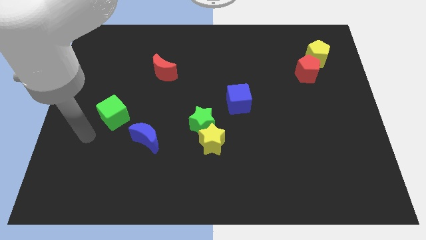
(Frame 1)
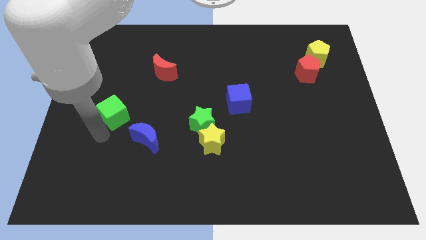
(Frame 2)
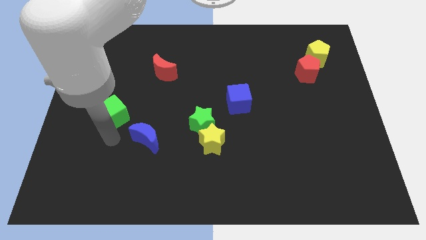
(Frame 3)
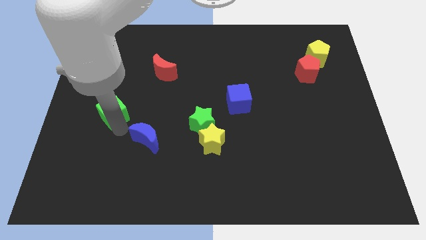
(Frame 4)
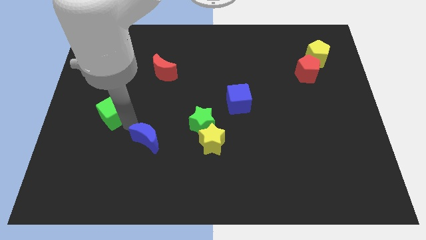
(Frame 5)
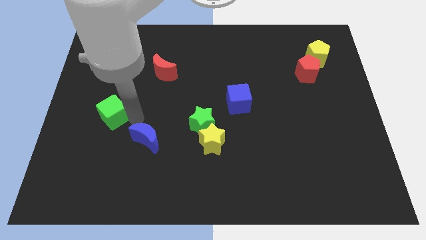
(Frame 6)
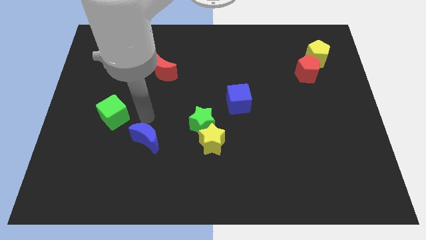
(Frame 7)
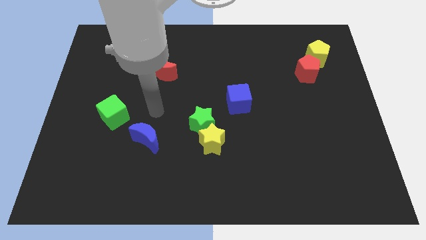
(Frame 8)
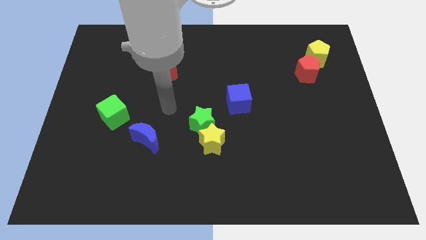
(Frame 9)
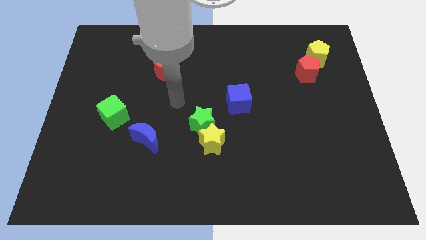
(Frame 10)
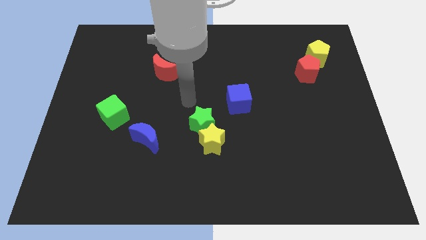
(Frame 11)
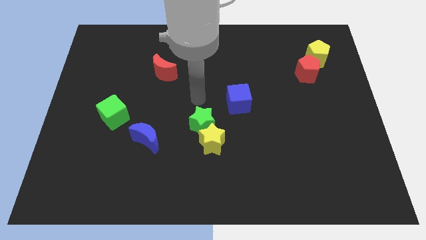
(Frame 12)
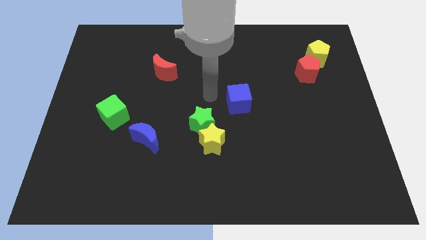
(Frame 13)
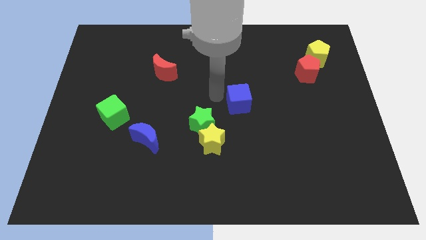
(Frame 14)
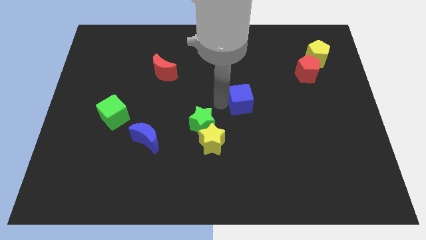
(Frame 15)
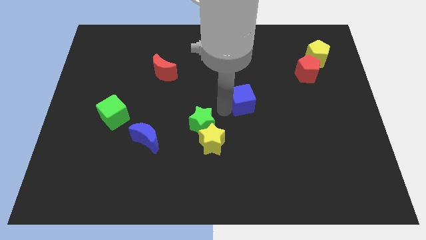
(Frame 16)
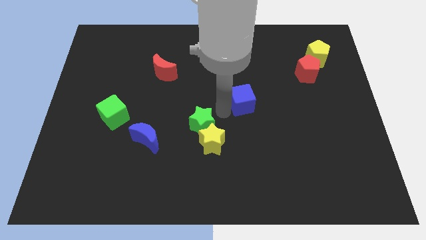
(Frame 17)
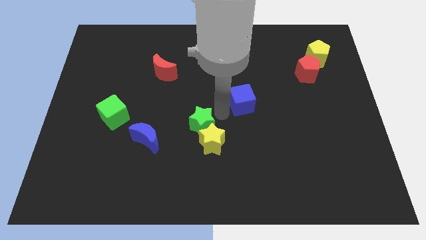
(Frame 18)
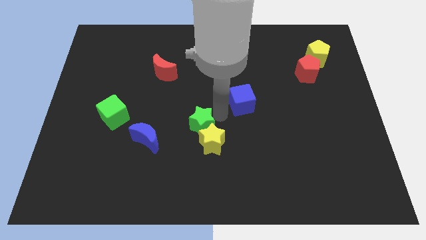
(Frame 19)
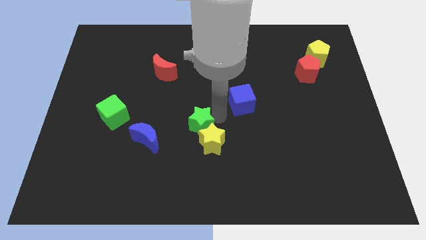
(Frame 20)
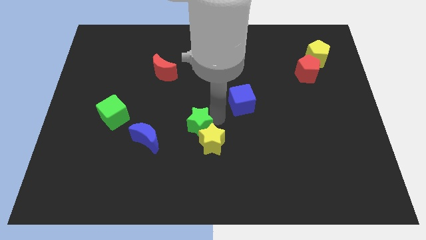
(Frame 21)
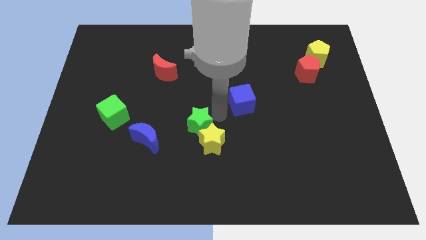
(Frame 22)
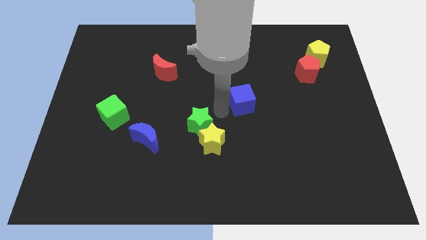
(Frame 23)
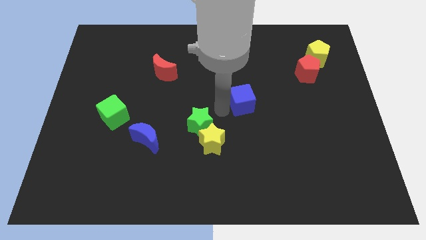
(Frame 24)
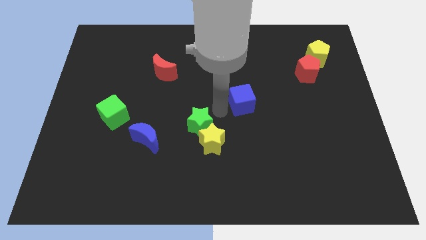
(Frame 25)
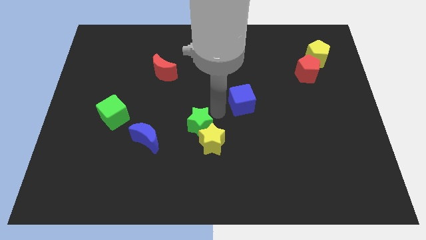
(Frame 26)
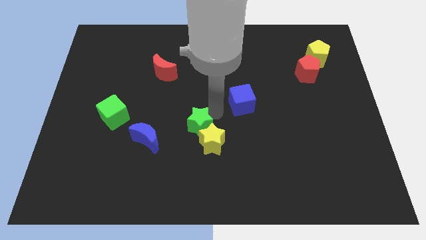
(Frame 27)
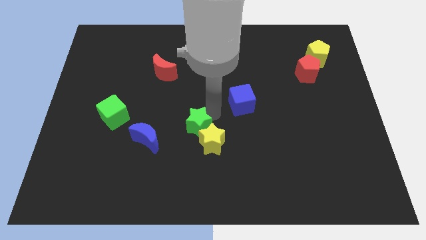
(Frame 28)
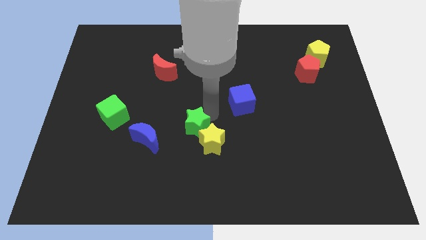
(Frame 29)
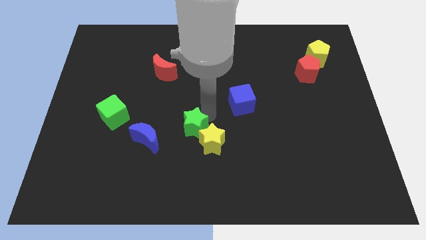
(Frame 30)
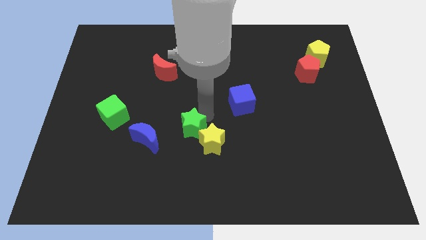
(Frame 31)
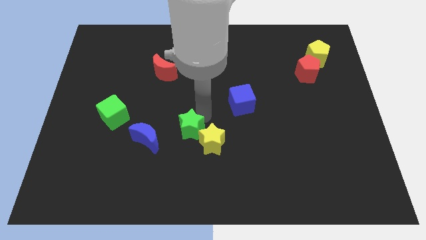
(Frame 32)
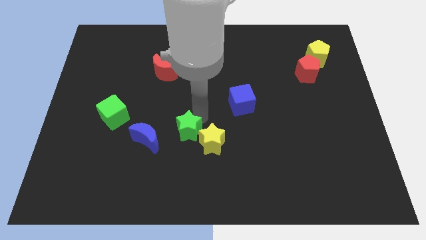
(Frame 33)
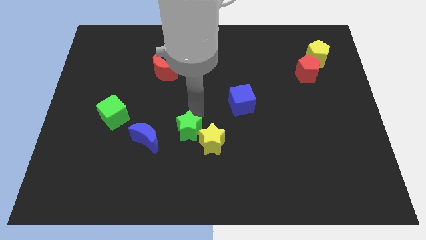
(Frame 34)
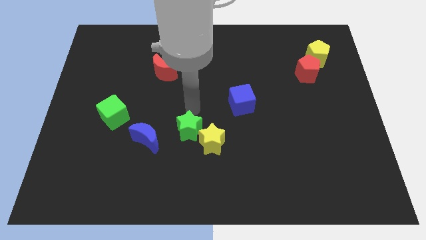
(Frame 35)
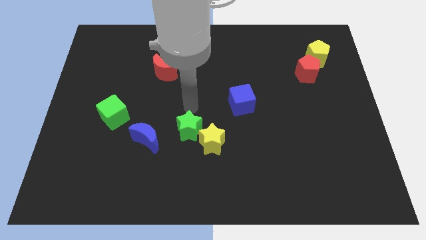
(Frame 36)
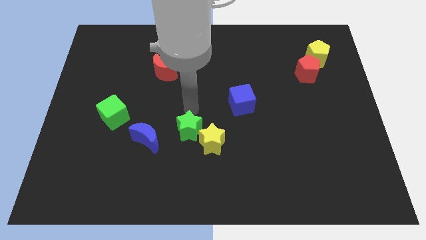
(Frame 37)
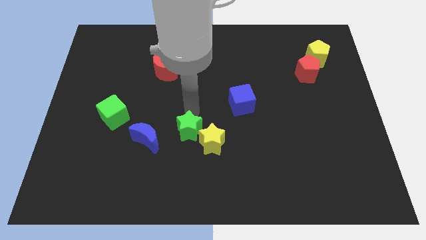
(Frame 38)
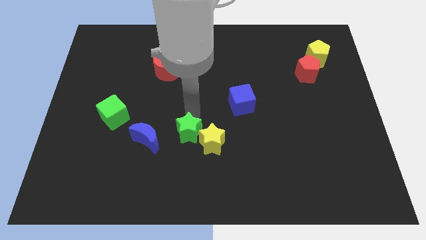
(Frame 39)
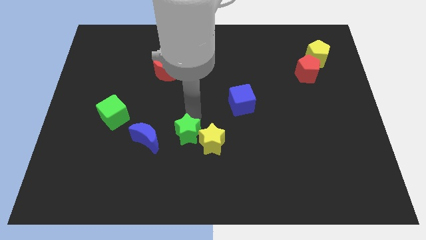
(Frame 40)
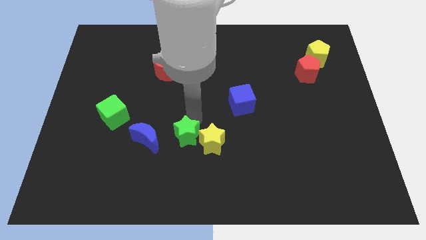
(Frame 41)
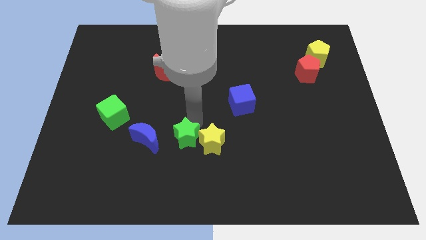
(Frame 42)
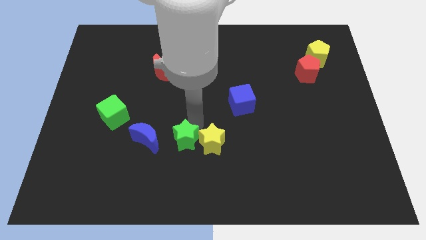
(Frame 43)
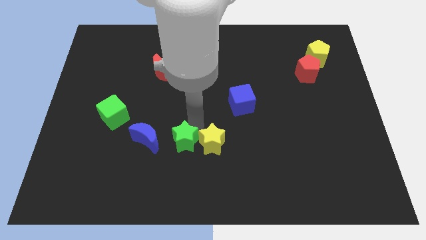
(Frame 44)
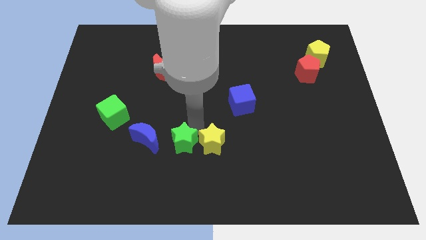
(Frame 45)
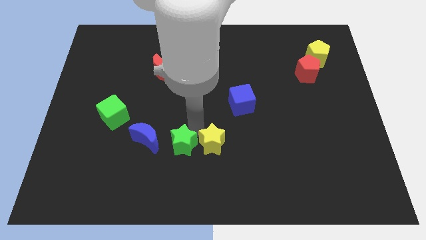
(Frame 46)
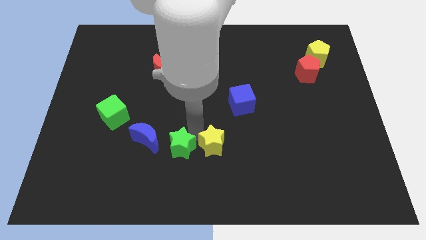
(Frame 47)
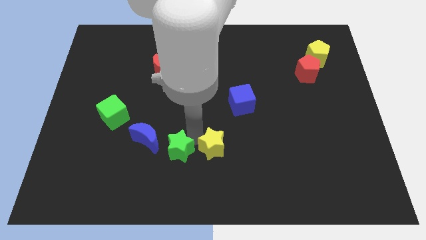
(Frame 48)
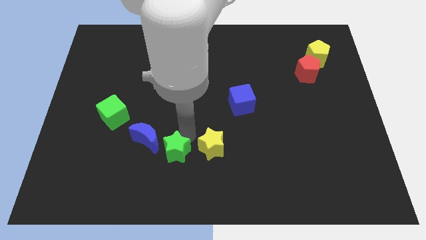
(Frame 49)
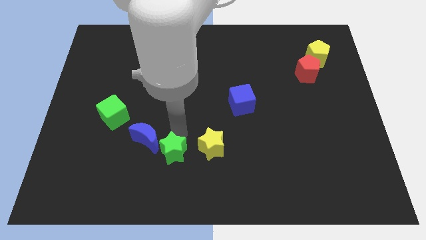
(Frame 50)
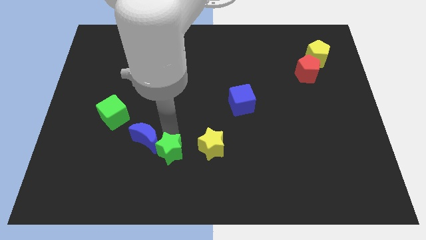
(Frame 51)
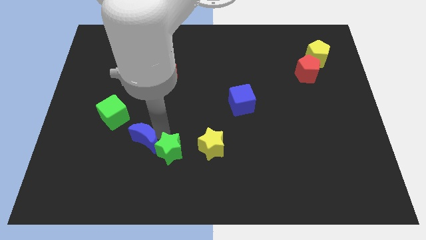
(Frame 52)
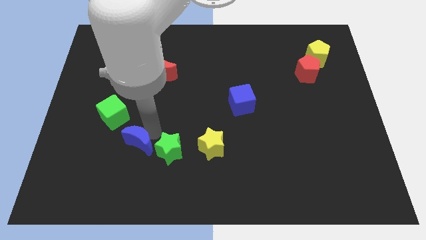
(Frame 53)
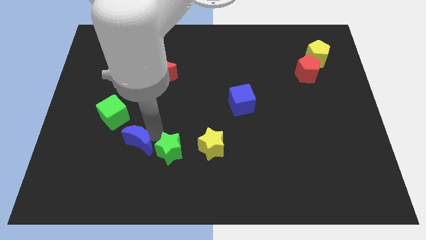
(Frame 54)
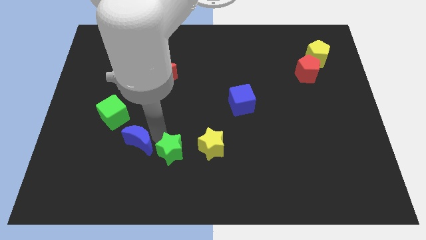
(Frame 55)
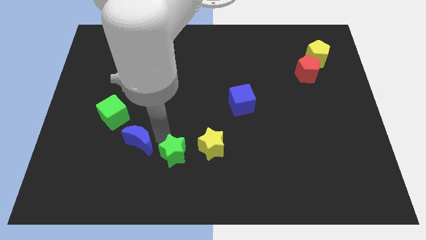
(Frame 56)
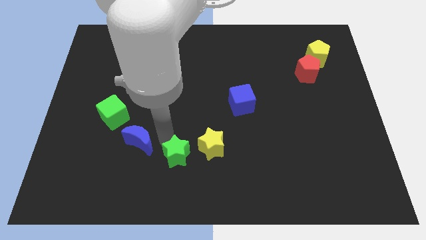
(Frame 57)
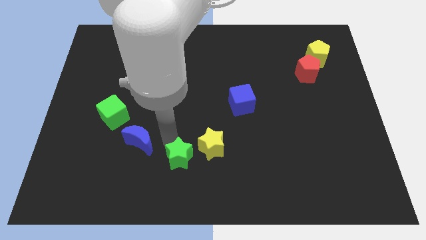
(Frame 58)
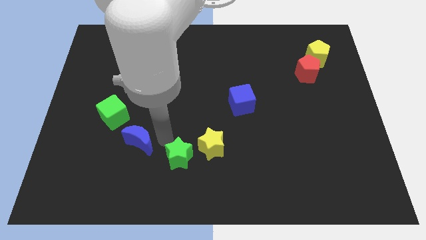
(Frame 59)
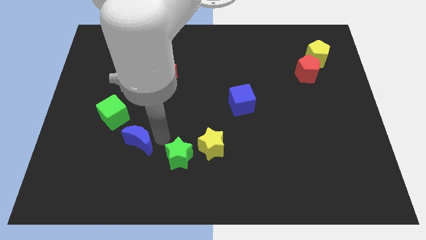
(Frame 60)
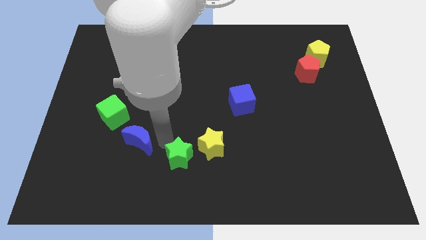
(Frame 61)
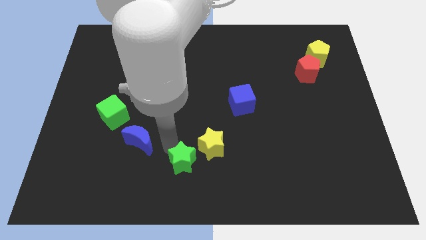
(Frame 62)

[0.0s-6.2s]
slide the green star to the bottom side

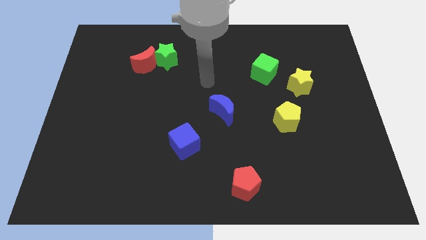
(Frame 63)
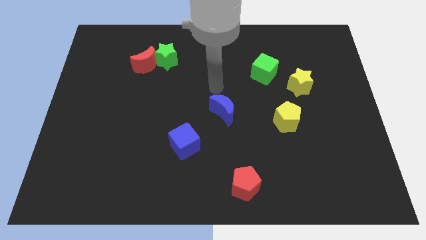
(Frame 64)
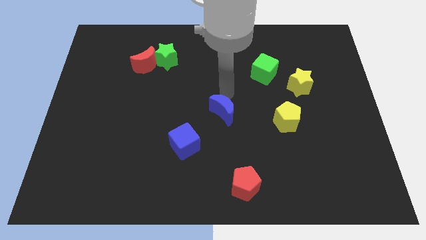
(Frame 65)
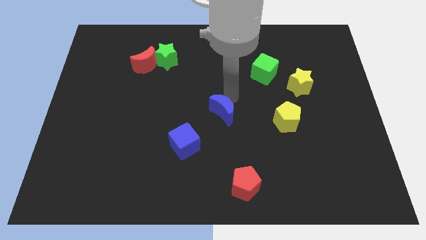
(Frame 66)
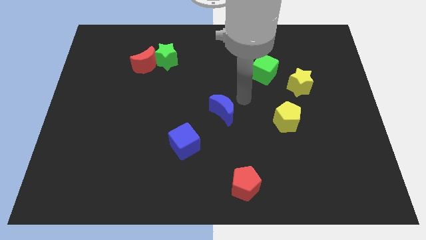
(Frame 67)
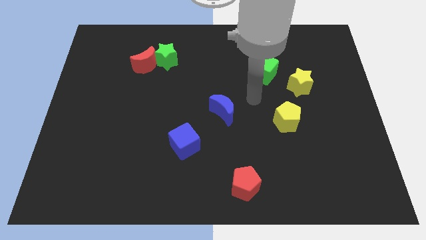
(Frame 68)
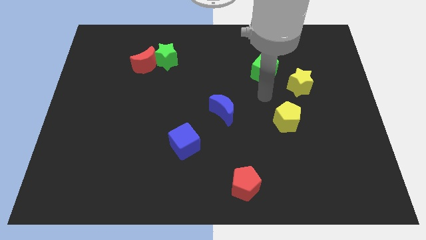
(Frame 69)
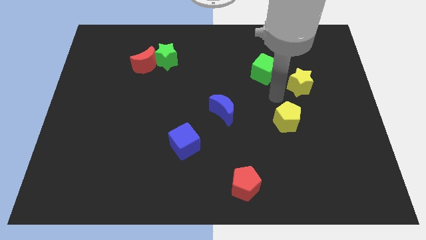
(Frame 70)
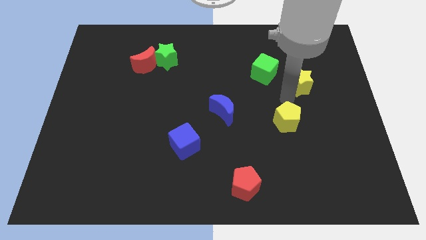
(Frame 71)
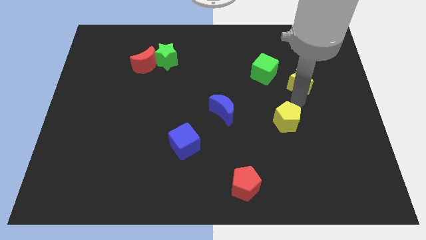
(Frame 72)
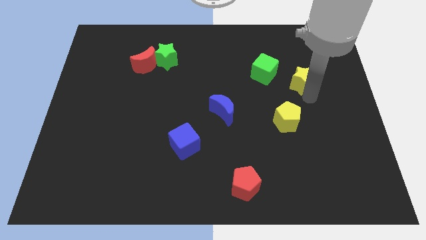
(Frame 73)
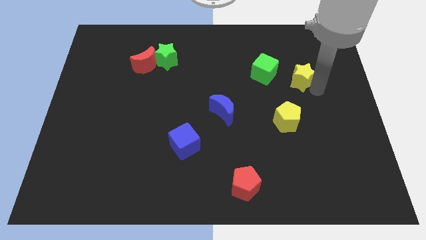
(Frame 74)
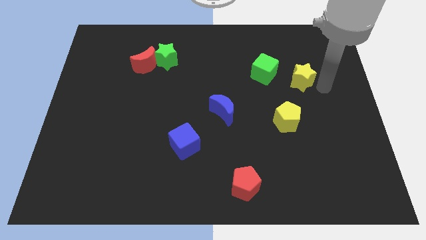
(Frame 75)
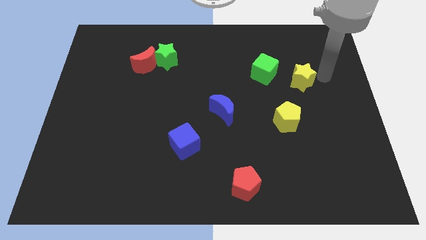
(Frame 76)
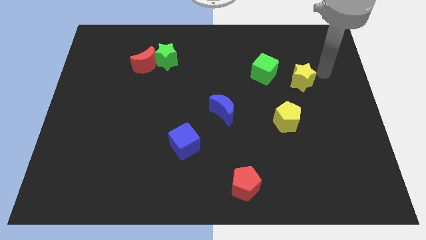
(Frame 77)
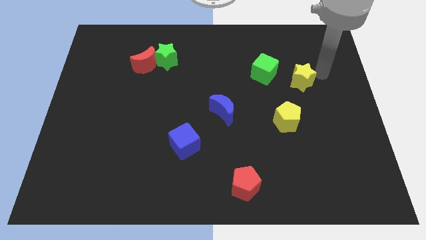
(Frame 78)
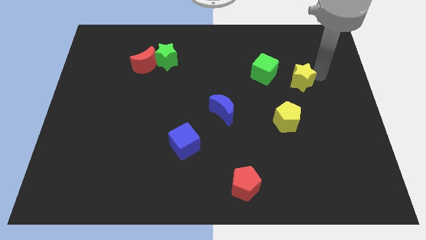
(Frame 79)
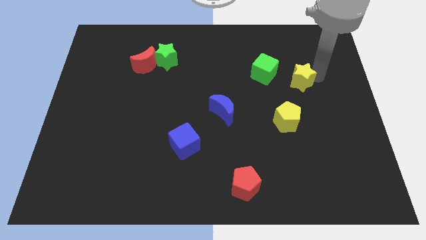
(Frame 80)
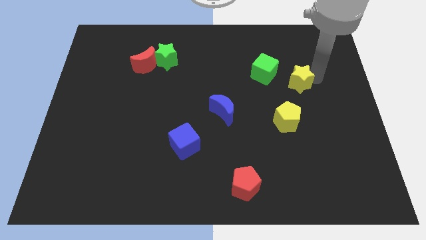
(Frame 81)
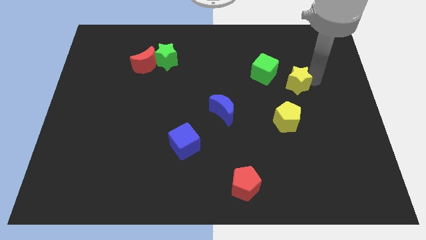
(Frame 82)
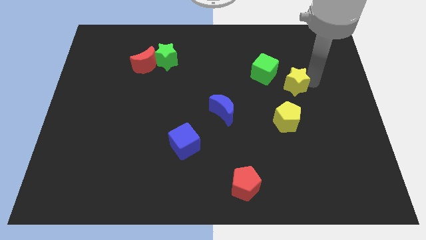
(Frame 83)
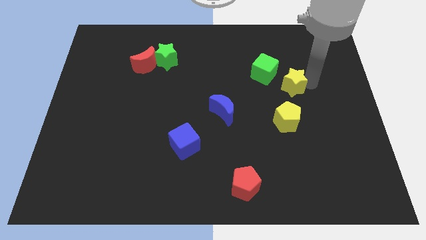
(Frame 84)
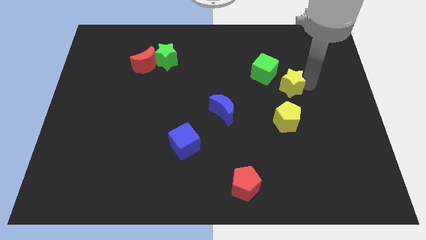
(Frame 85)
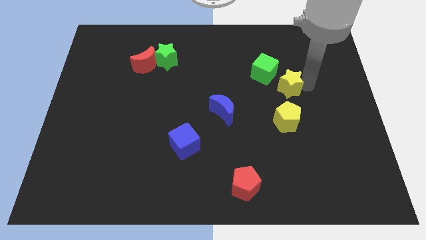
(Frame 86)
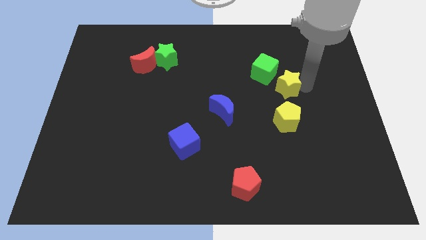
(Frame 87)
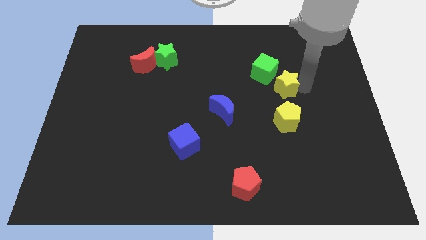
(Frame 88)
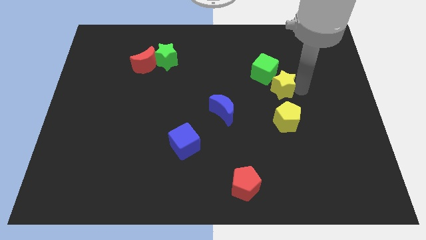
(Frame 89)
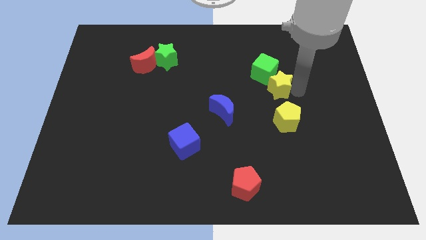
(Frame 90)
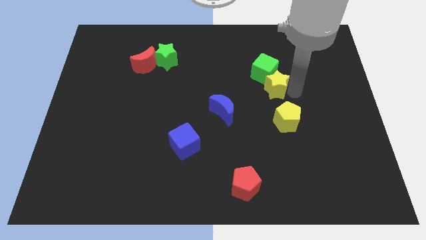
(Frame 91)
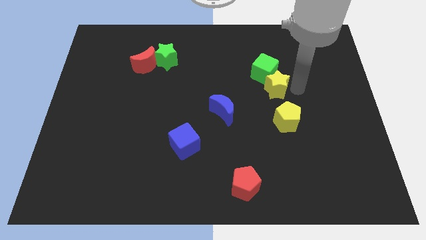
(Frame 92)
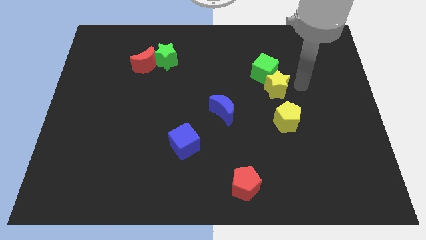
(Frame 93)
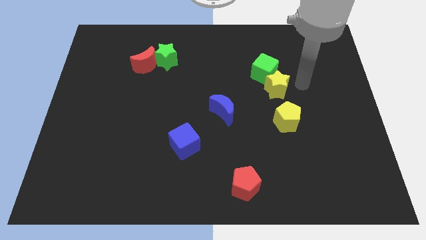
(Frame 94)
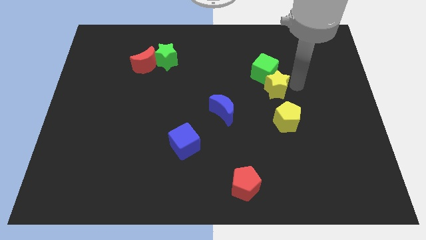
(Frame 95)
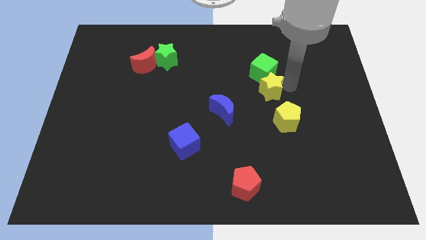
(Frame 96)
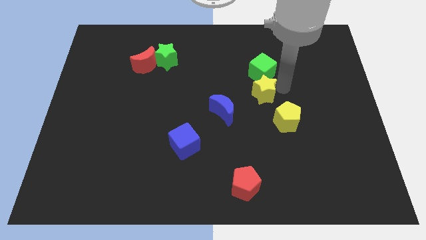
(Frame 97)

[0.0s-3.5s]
slide the yellow star to the center
